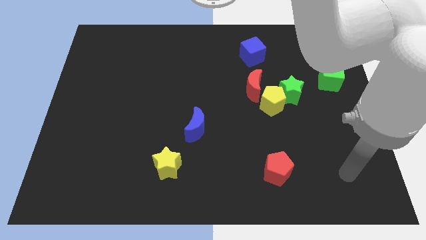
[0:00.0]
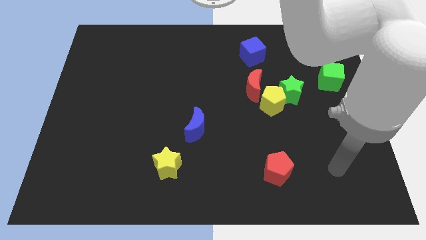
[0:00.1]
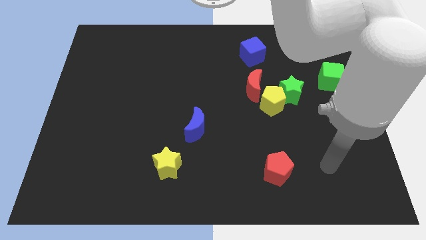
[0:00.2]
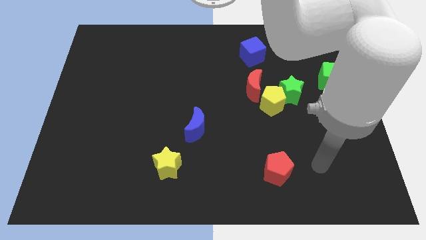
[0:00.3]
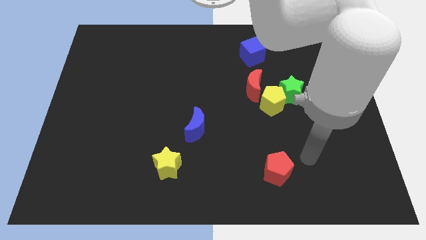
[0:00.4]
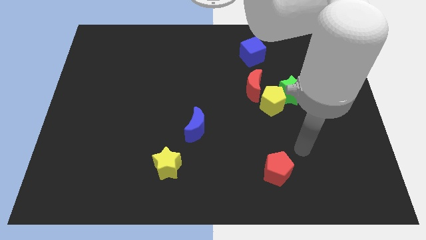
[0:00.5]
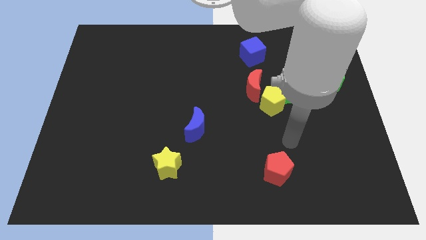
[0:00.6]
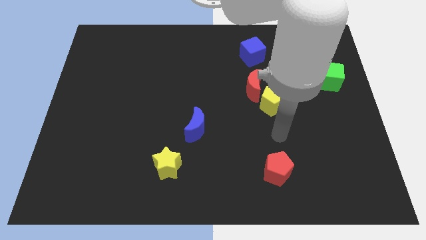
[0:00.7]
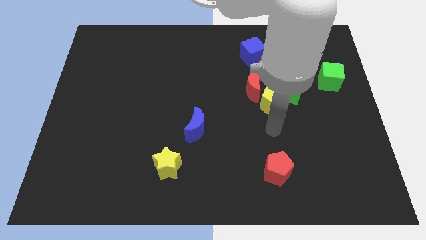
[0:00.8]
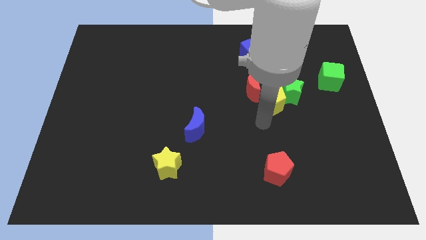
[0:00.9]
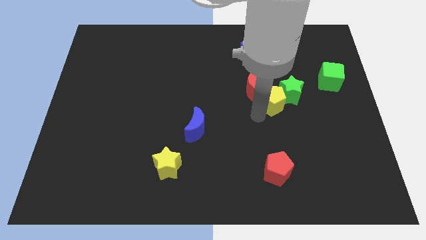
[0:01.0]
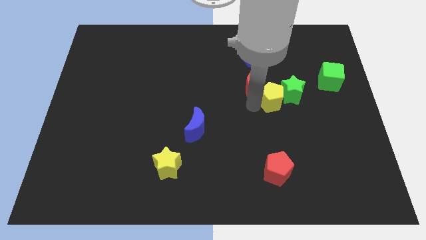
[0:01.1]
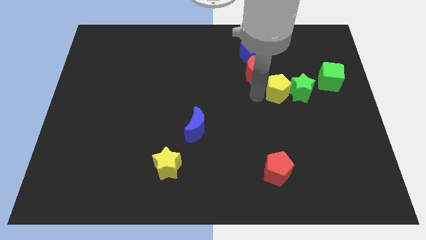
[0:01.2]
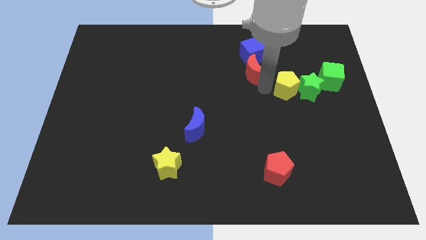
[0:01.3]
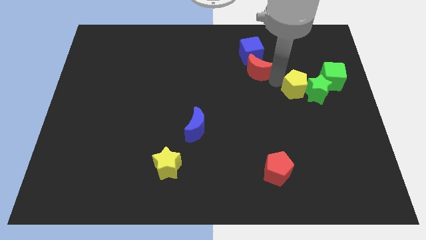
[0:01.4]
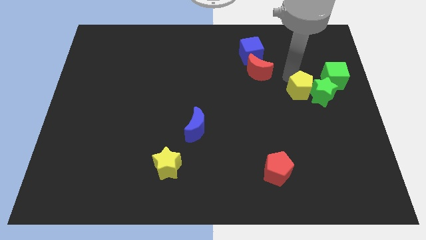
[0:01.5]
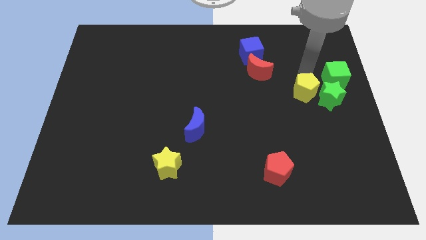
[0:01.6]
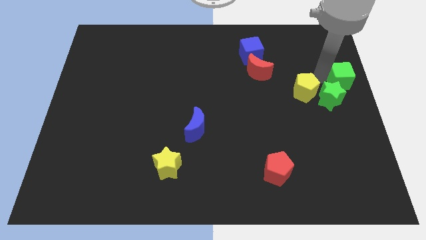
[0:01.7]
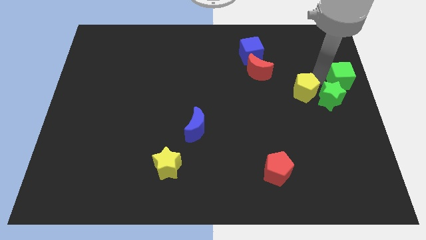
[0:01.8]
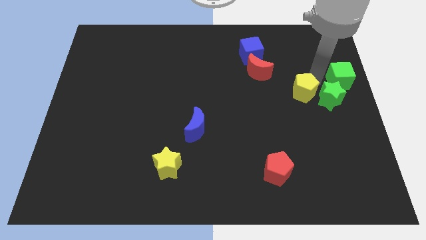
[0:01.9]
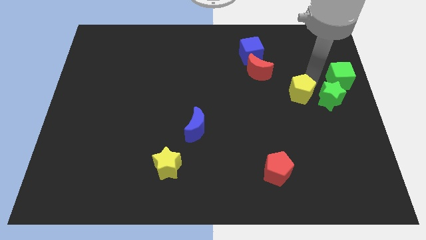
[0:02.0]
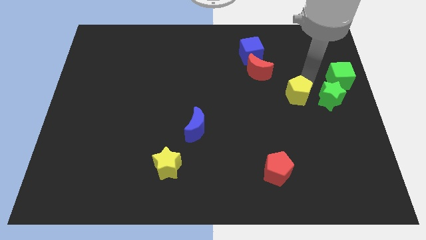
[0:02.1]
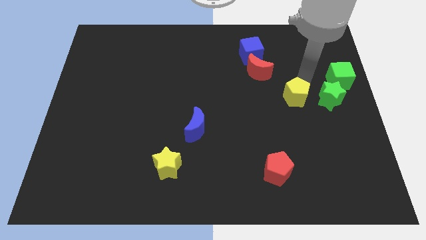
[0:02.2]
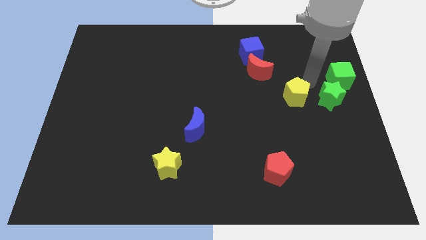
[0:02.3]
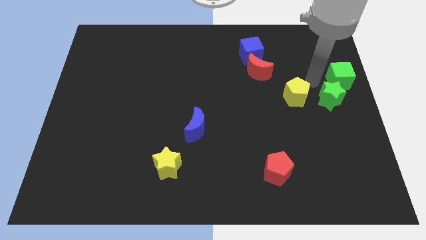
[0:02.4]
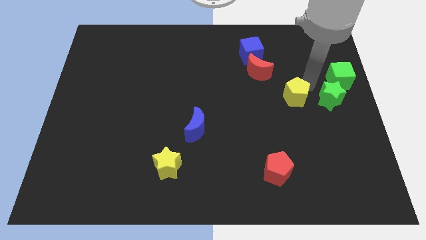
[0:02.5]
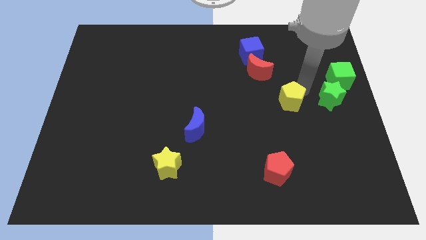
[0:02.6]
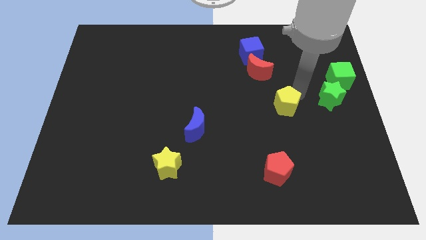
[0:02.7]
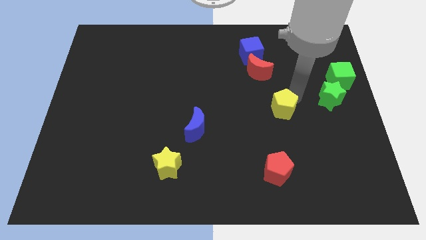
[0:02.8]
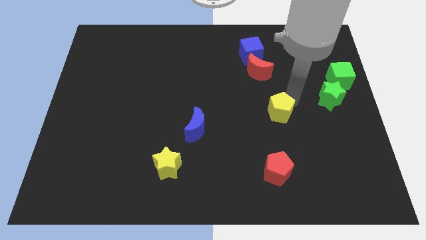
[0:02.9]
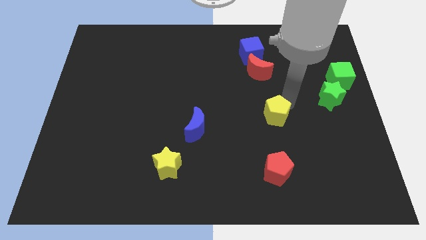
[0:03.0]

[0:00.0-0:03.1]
pull the yellow pentagon apart from the green star and red moon

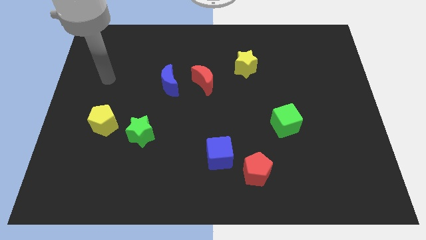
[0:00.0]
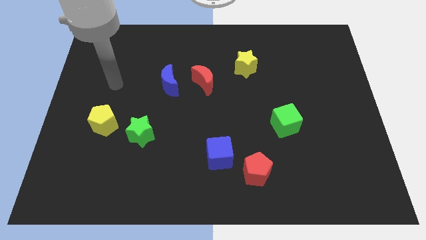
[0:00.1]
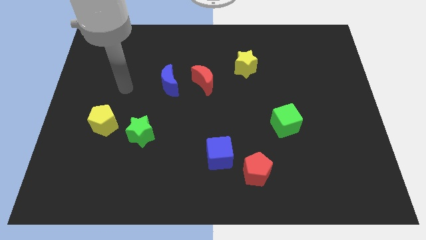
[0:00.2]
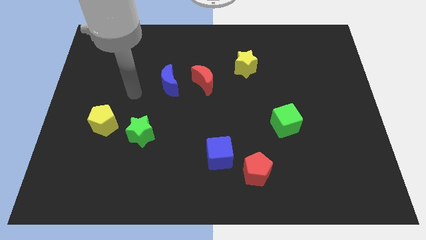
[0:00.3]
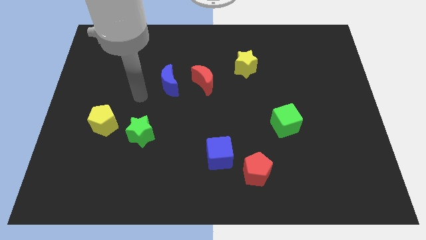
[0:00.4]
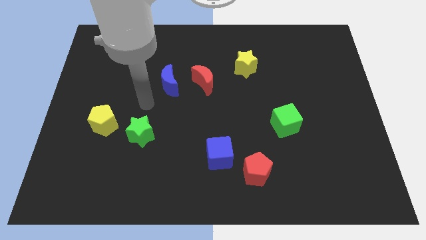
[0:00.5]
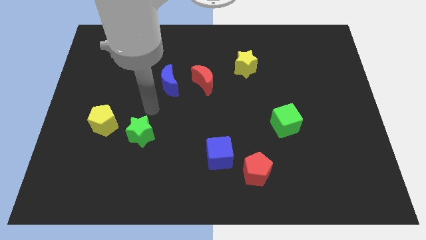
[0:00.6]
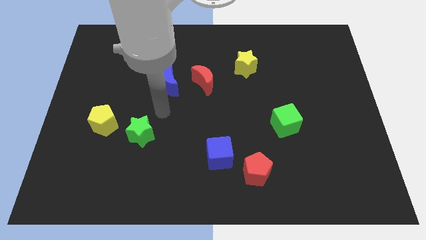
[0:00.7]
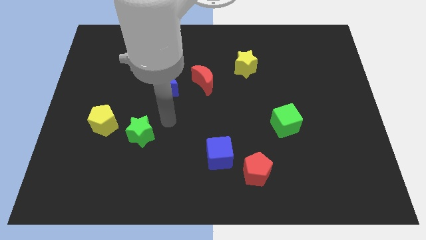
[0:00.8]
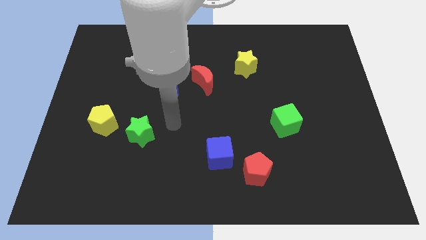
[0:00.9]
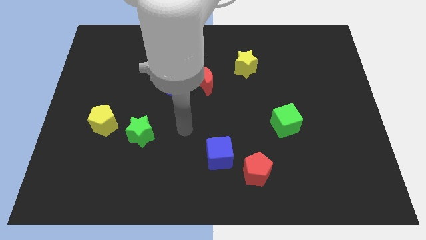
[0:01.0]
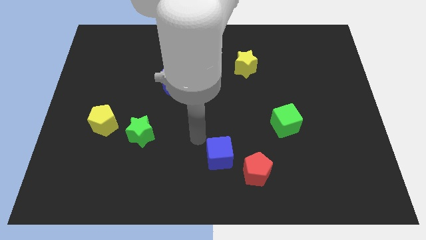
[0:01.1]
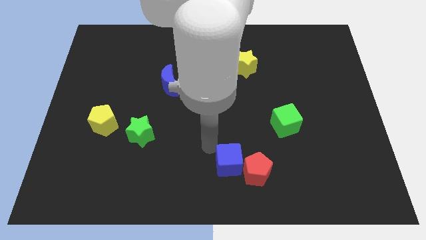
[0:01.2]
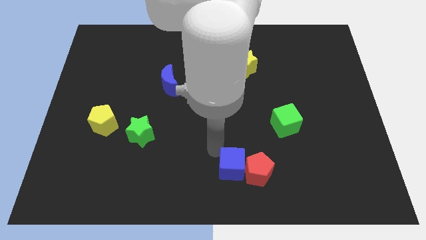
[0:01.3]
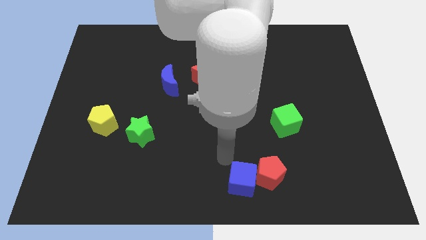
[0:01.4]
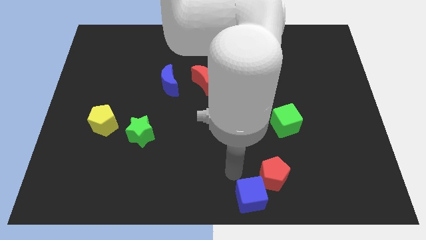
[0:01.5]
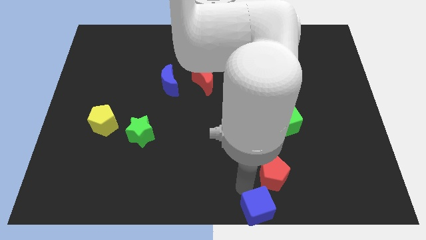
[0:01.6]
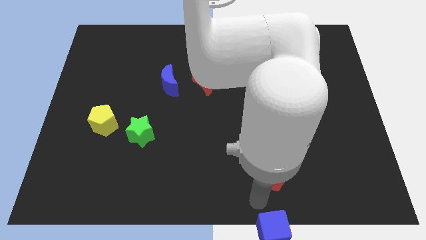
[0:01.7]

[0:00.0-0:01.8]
separate the red pentagon from the blue cube

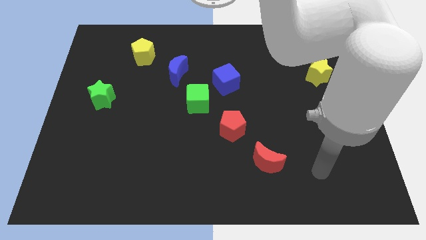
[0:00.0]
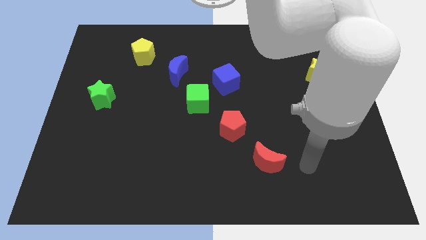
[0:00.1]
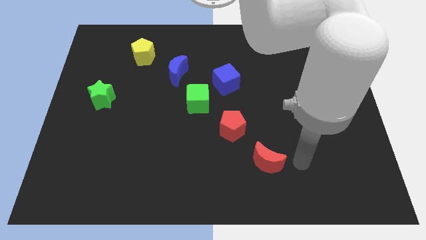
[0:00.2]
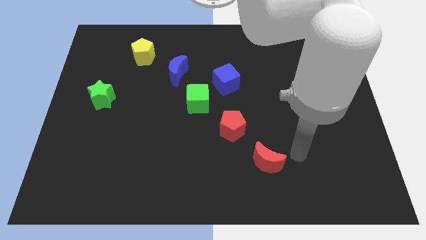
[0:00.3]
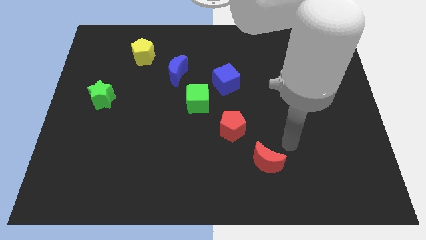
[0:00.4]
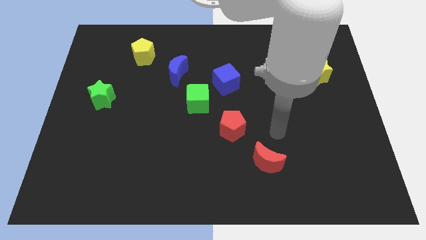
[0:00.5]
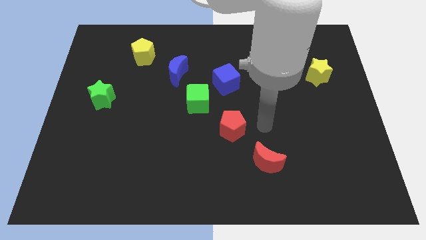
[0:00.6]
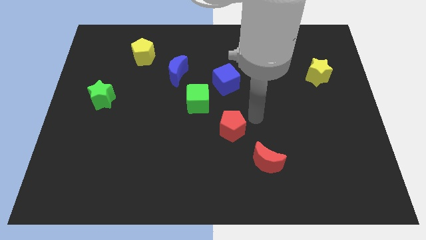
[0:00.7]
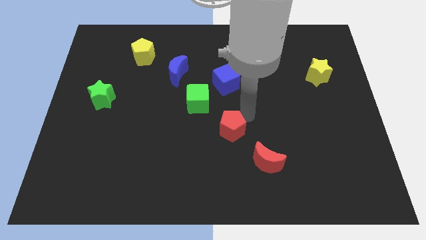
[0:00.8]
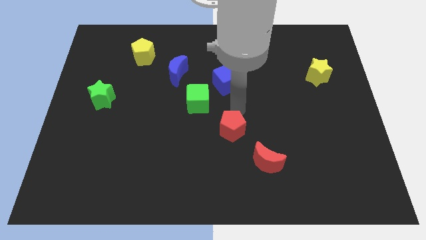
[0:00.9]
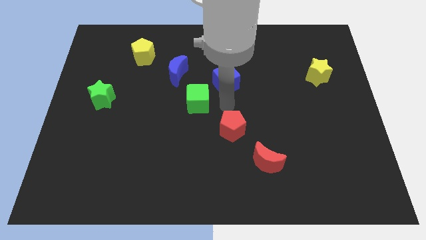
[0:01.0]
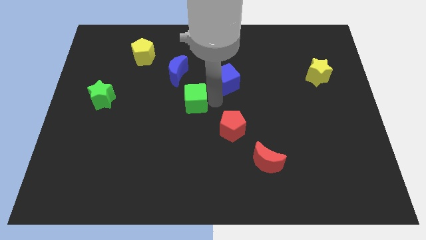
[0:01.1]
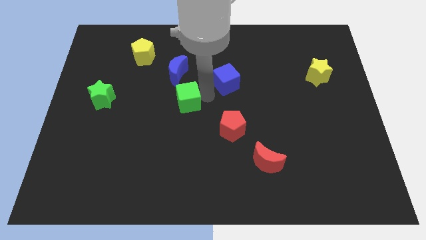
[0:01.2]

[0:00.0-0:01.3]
separate the blue cube from the green cube

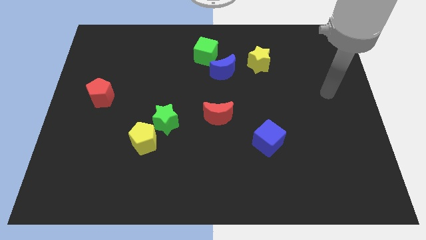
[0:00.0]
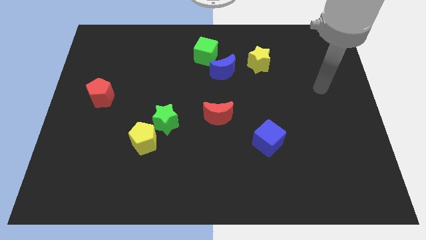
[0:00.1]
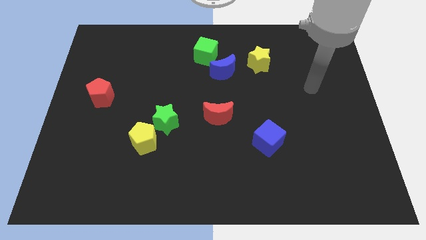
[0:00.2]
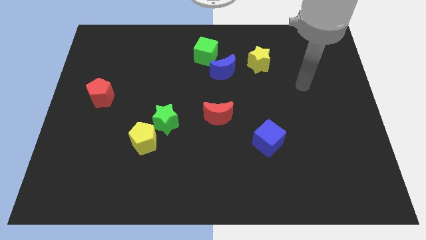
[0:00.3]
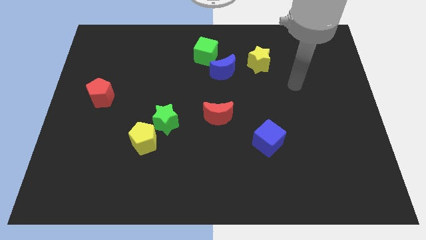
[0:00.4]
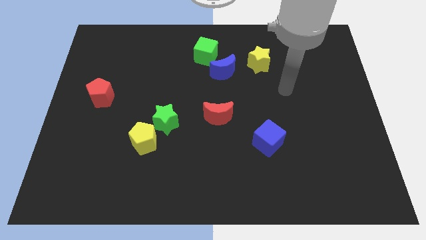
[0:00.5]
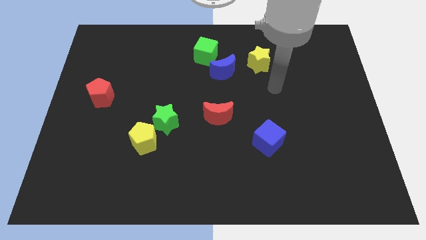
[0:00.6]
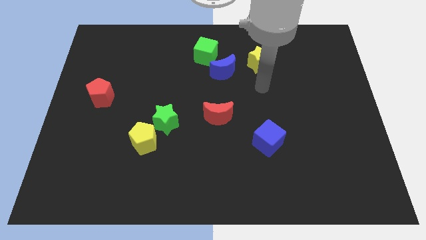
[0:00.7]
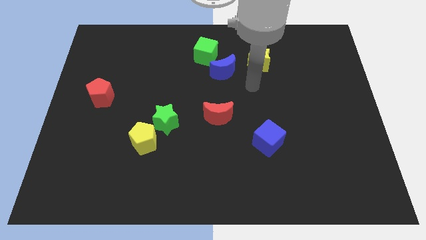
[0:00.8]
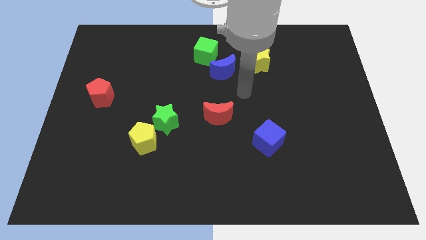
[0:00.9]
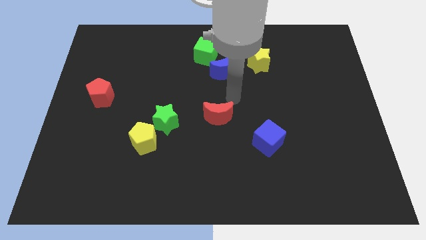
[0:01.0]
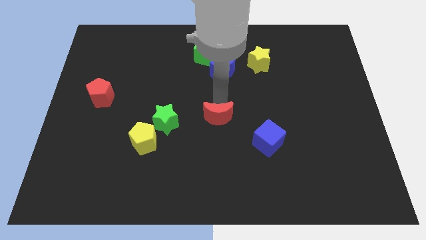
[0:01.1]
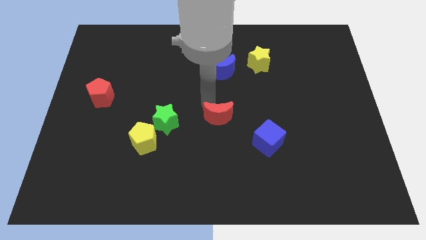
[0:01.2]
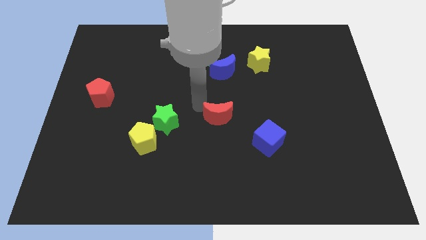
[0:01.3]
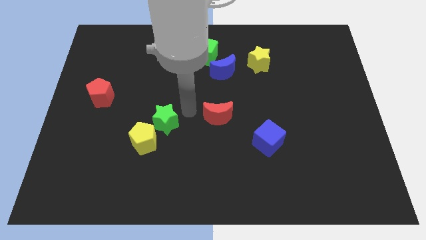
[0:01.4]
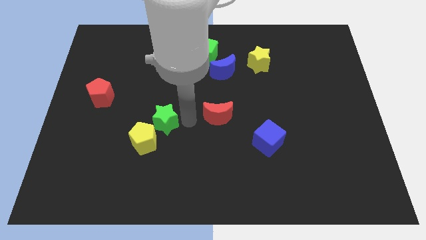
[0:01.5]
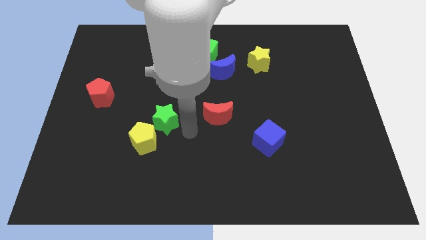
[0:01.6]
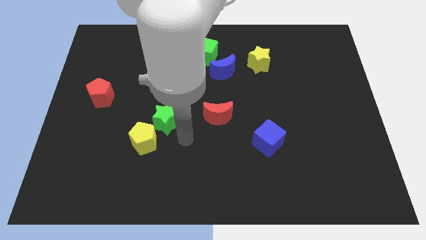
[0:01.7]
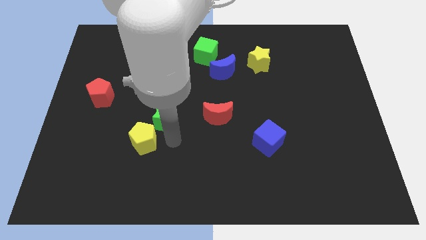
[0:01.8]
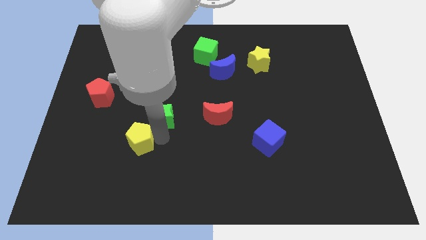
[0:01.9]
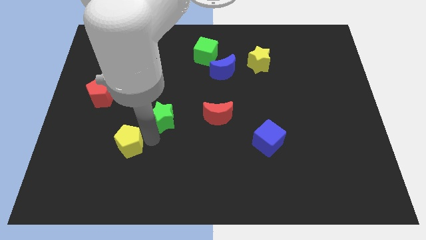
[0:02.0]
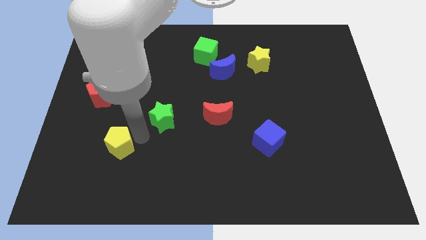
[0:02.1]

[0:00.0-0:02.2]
move the green star away from the yellow pentagon

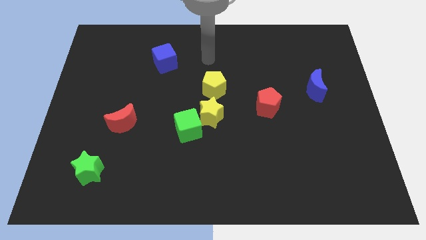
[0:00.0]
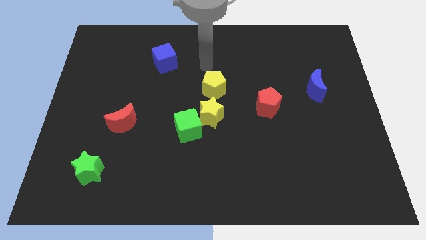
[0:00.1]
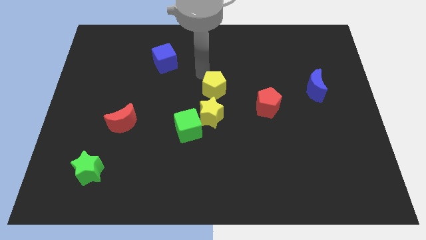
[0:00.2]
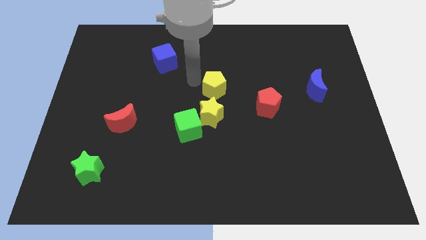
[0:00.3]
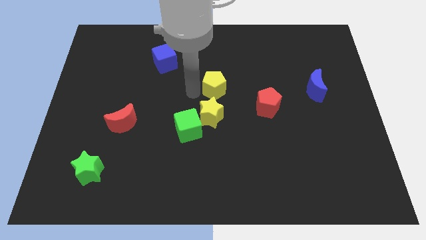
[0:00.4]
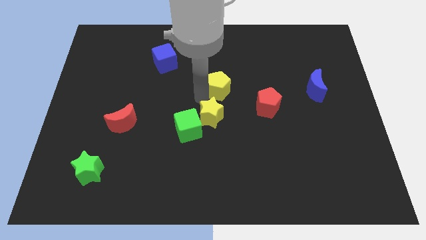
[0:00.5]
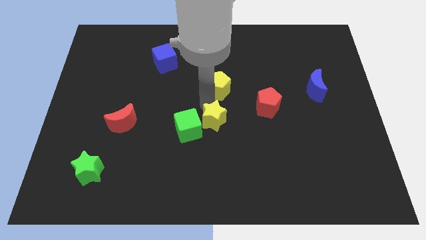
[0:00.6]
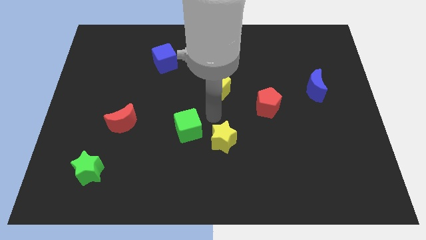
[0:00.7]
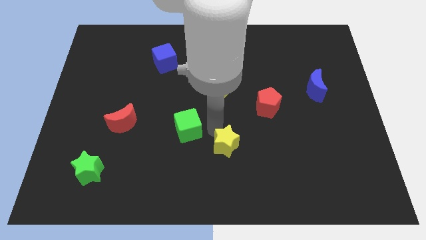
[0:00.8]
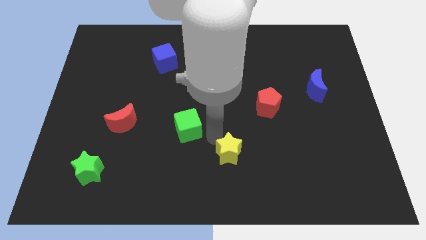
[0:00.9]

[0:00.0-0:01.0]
move the green cube away from the yellow star

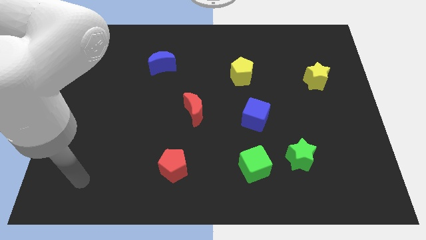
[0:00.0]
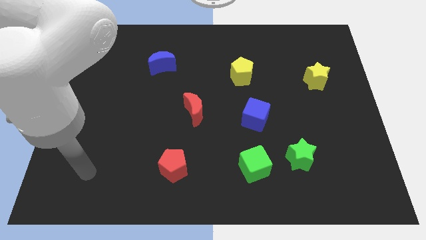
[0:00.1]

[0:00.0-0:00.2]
pull the green cube apart from the green star
